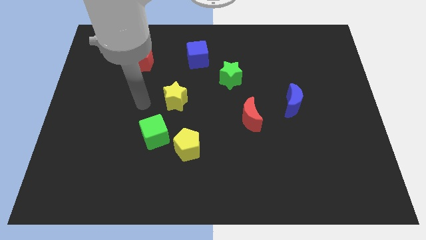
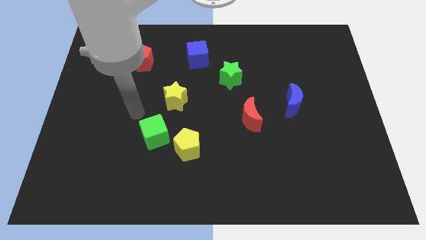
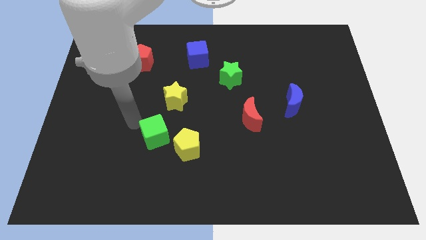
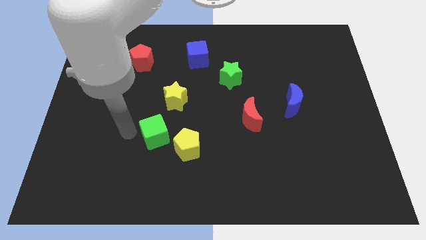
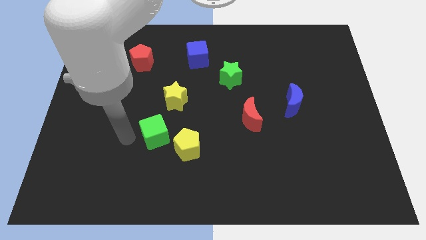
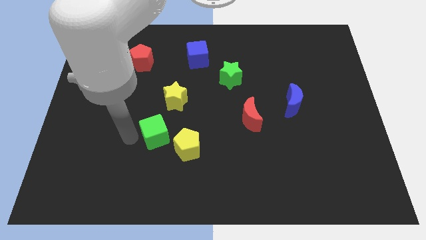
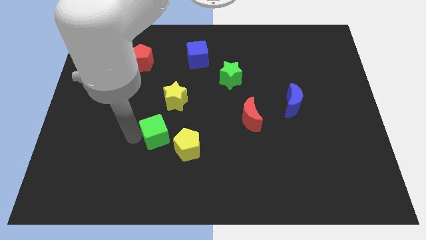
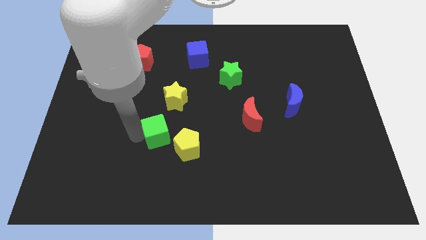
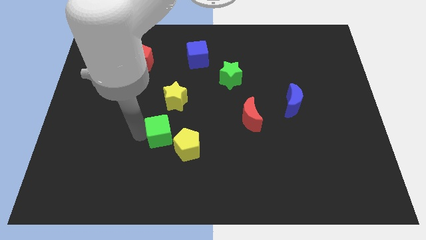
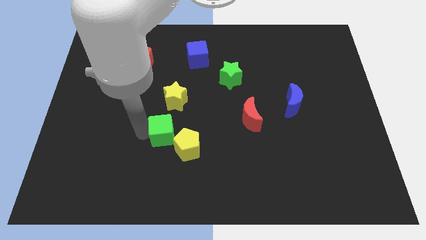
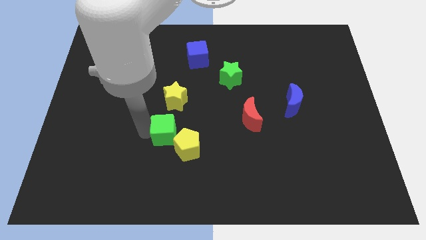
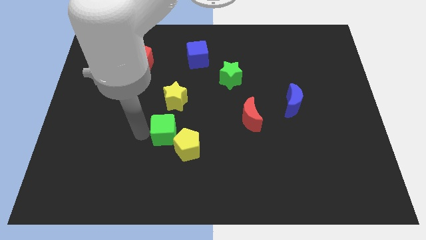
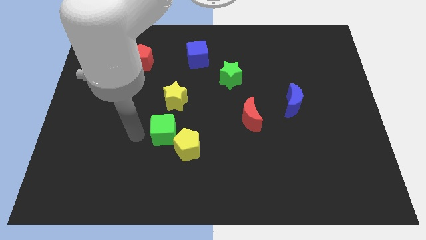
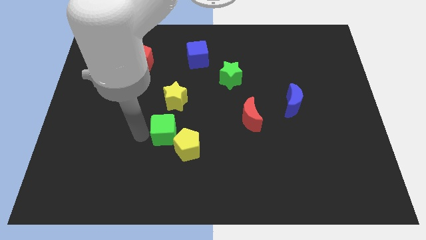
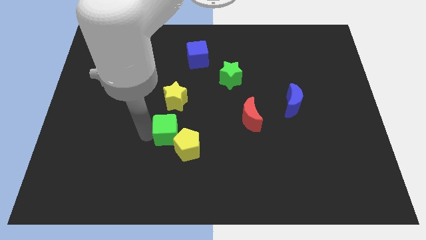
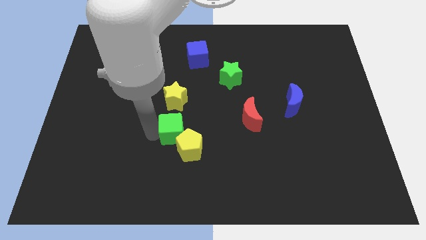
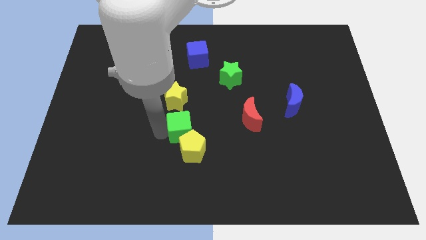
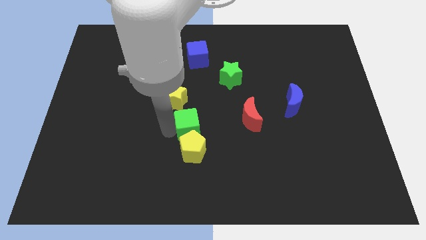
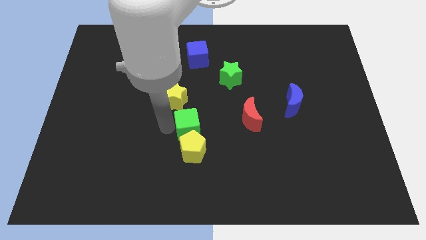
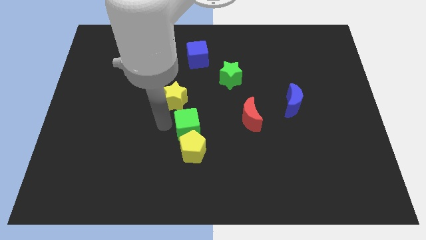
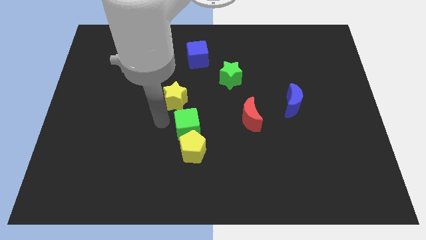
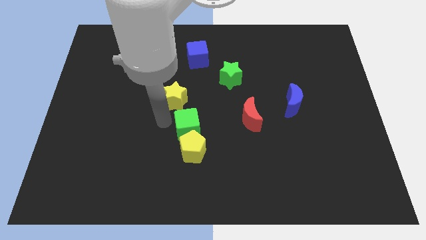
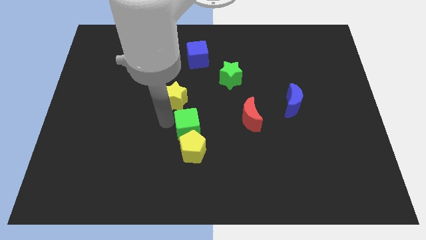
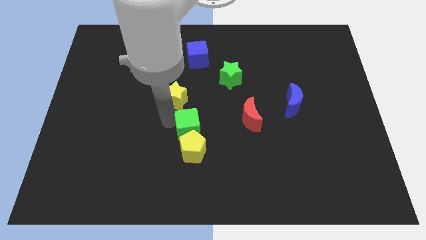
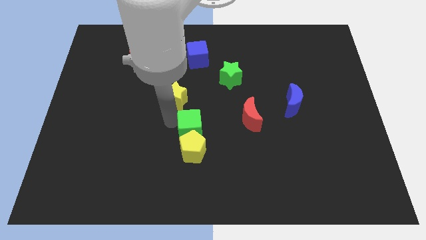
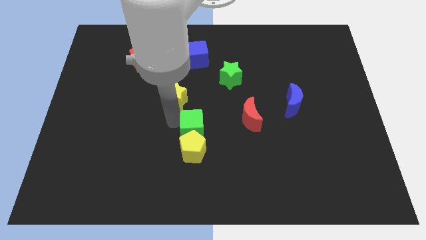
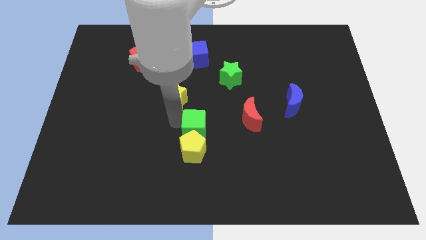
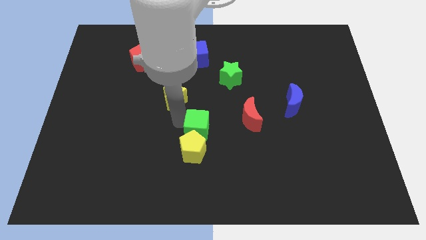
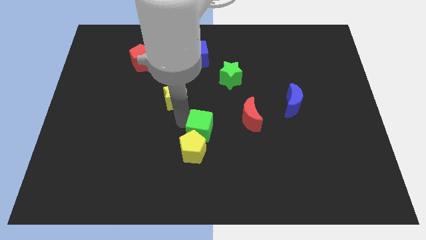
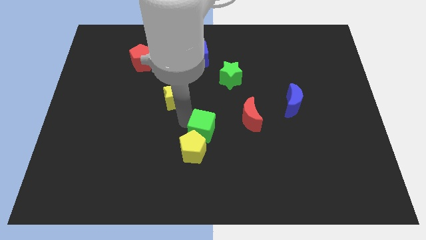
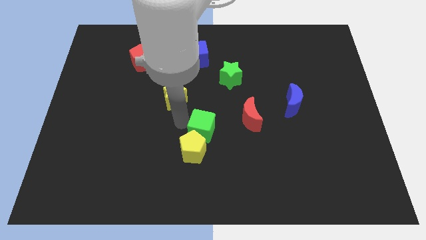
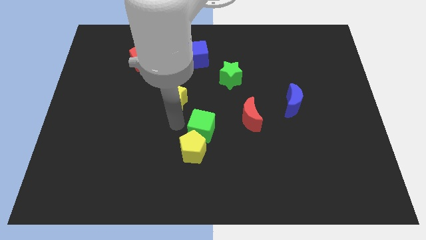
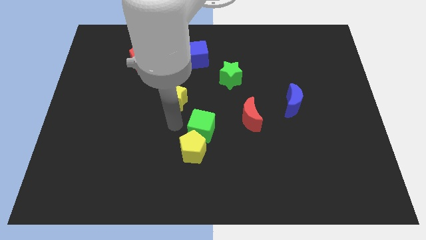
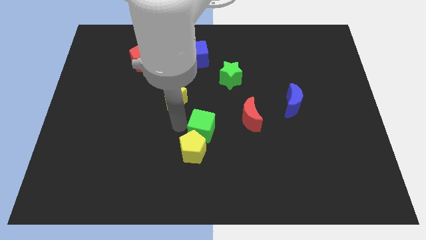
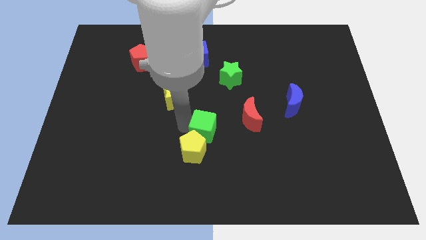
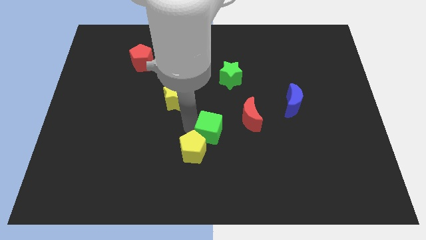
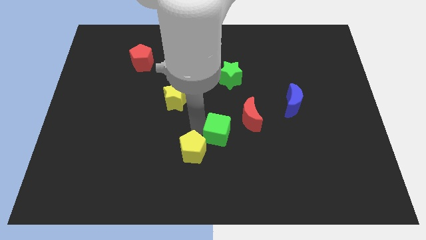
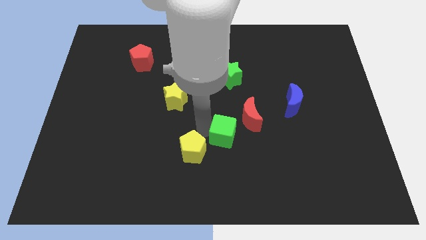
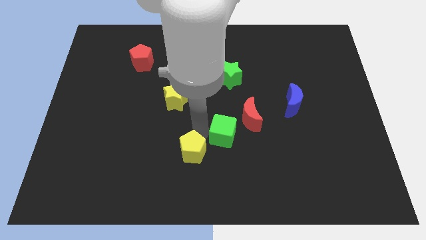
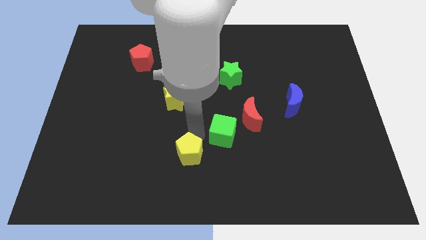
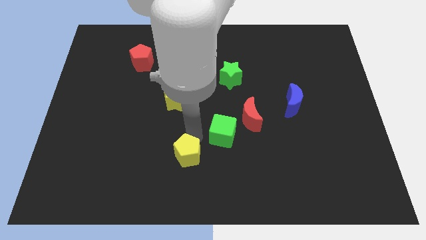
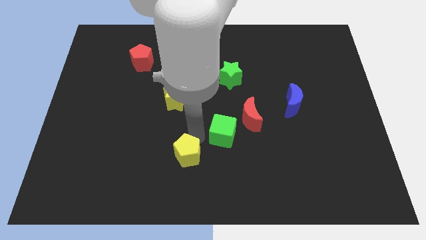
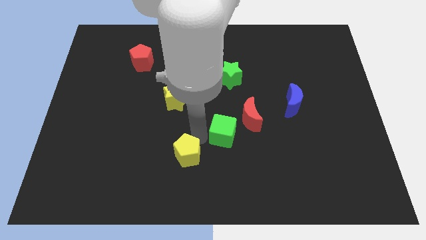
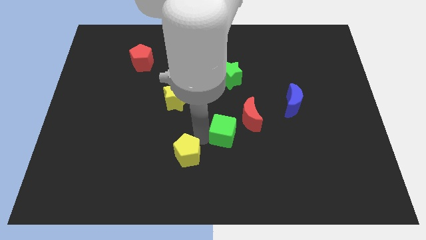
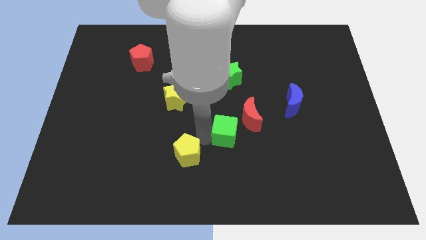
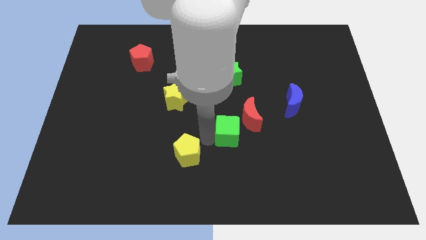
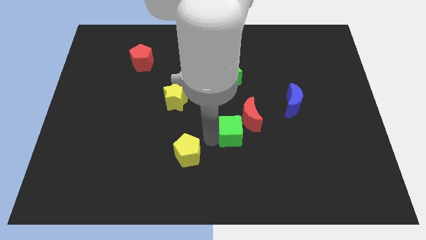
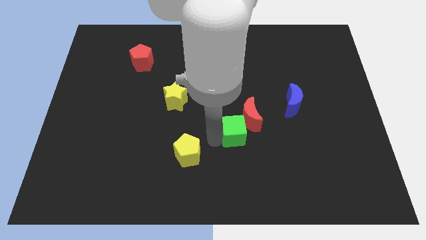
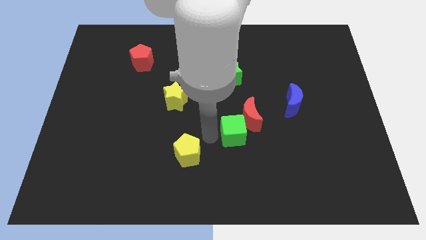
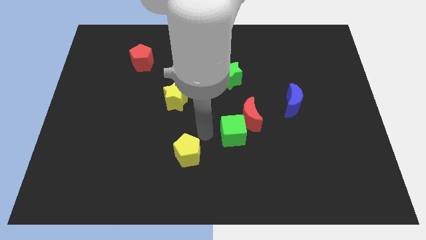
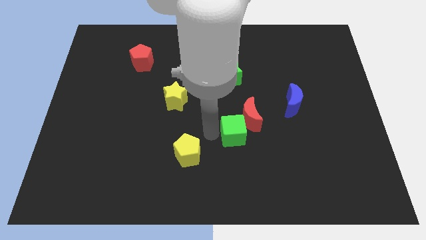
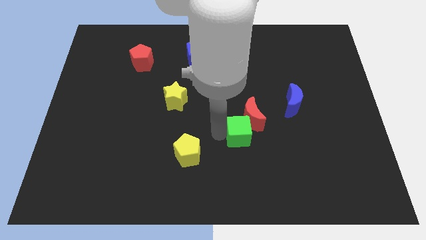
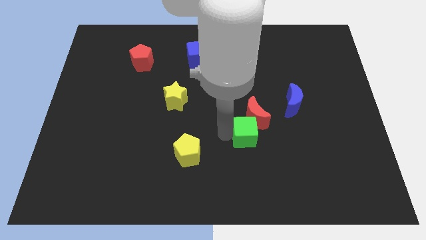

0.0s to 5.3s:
slide the green cube right

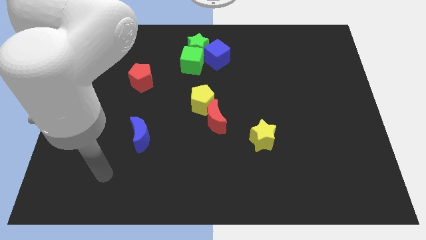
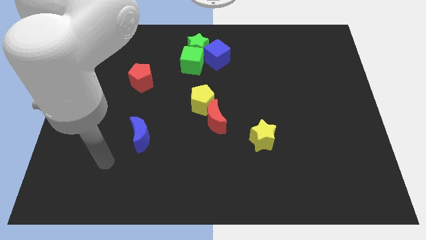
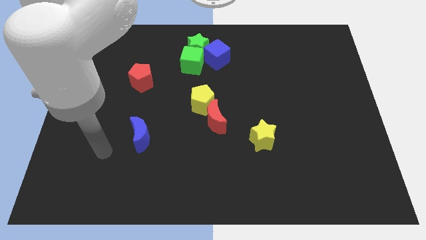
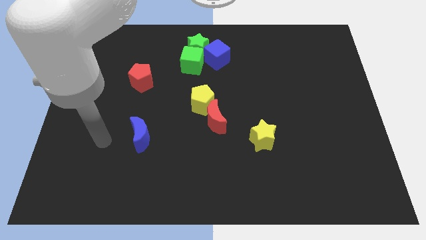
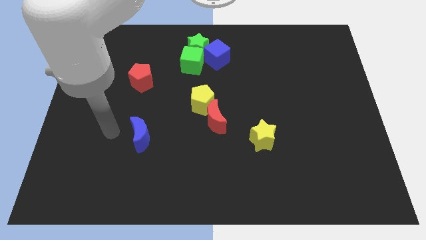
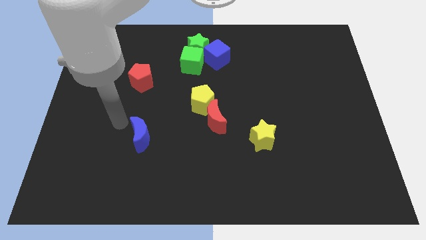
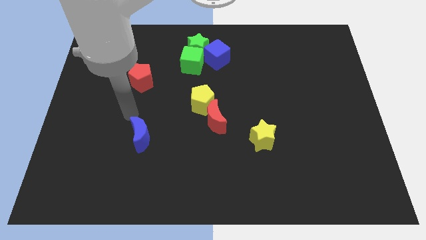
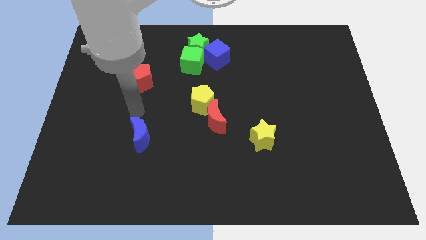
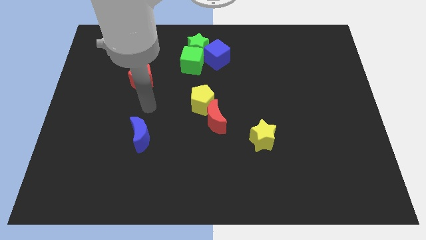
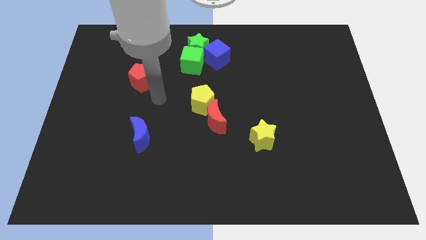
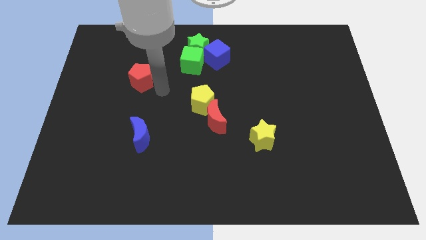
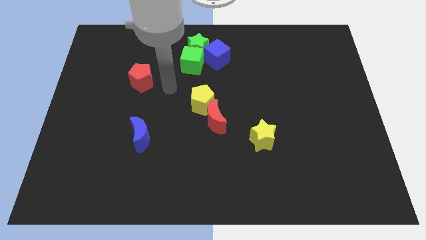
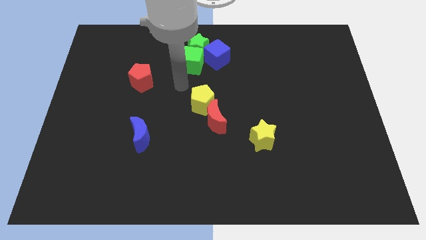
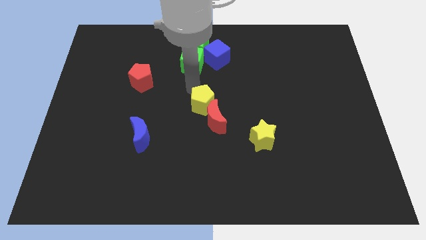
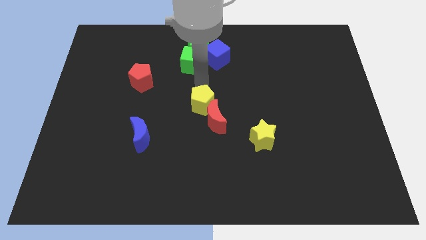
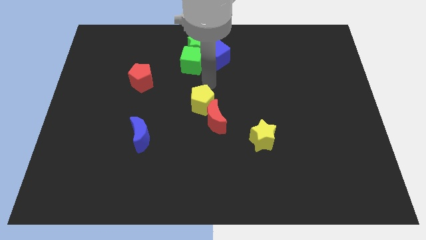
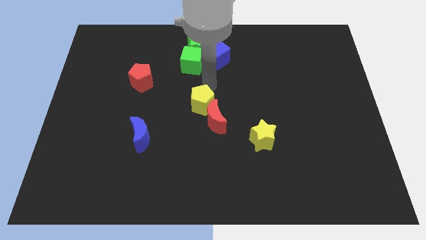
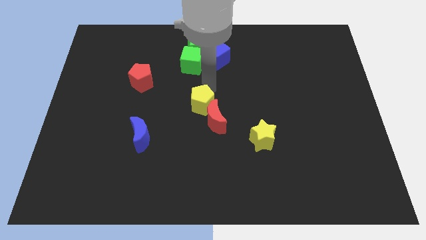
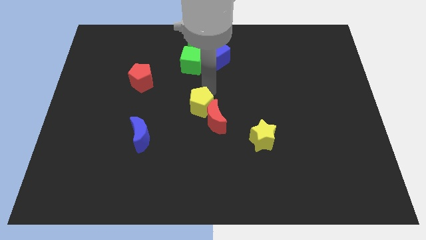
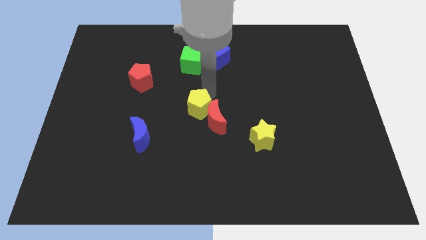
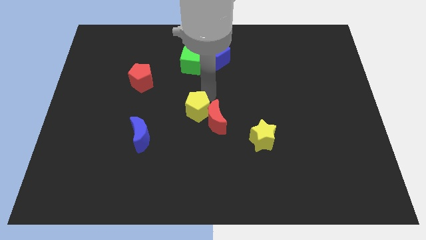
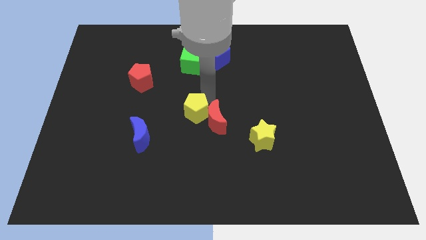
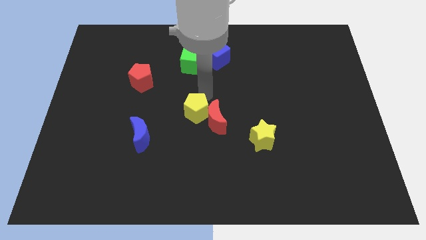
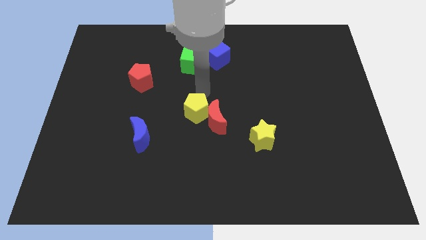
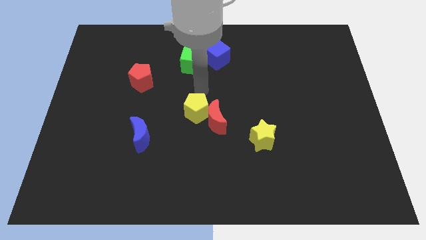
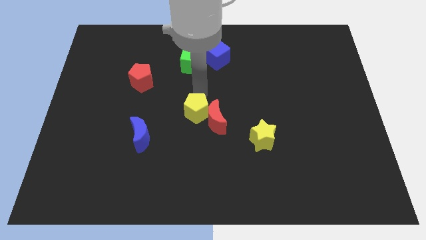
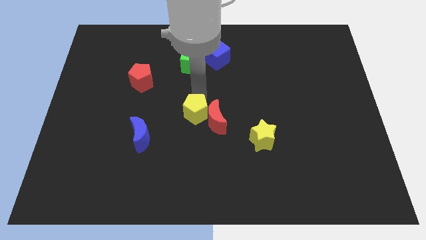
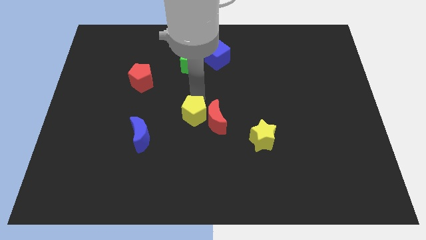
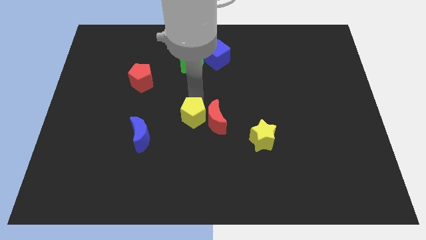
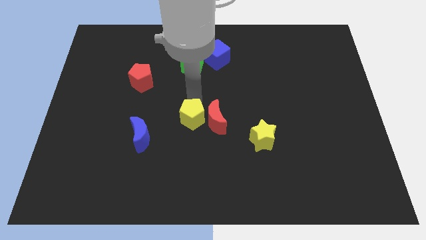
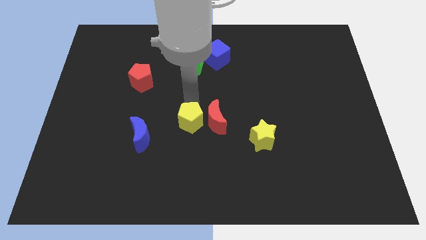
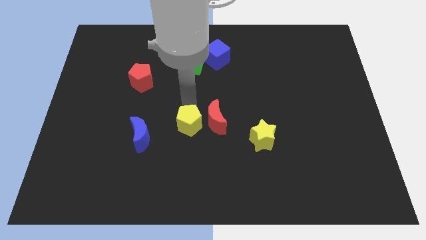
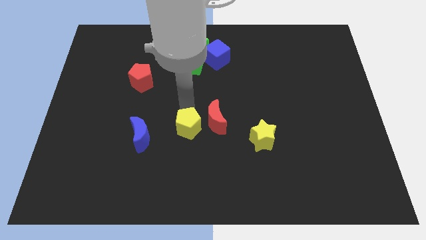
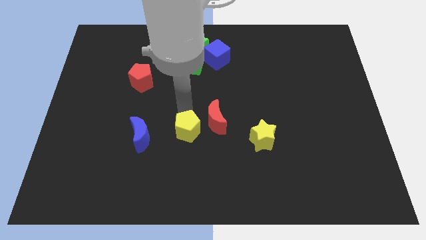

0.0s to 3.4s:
slide the yellow pentagon a little bit downwards
